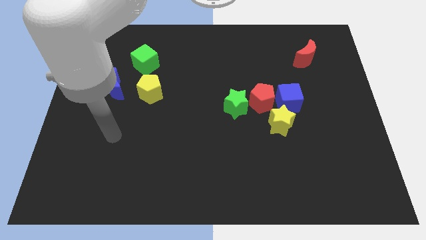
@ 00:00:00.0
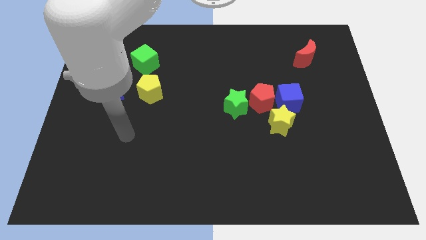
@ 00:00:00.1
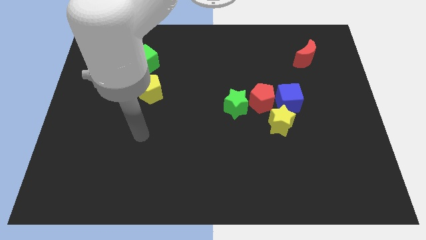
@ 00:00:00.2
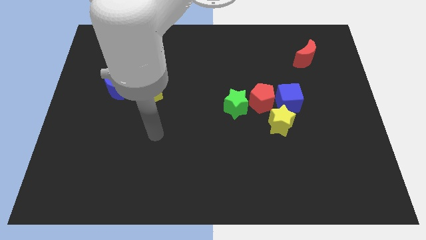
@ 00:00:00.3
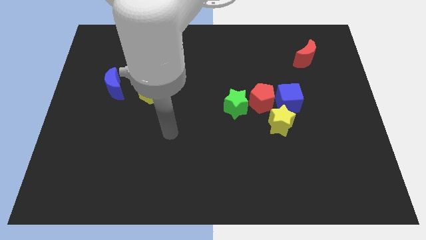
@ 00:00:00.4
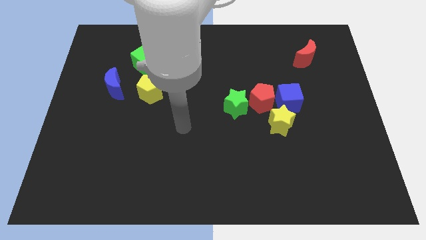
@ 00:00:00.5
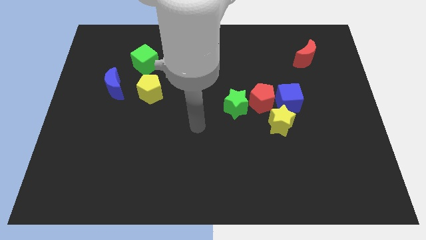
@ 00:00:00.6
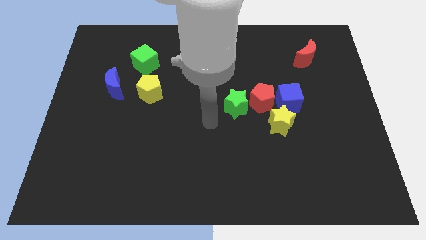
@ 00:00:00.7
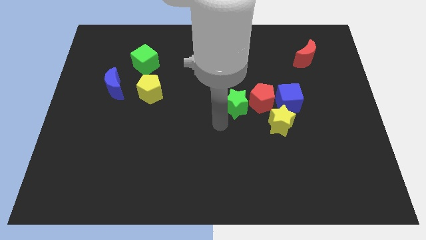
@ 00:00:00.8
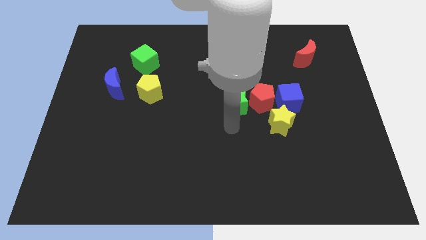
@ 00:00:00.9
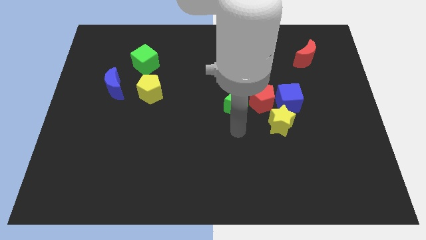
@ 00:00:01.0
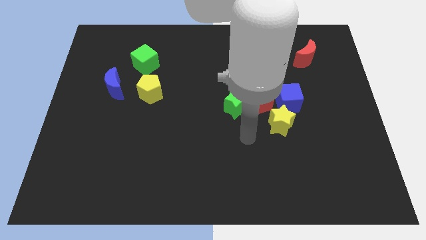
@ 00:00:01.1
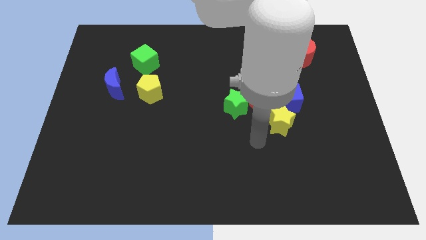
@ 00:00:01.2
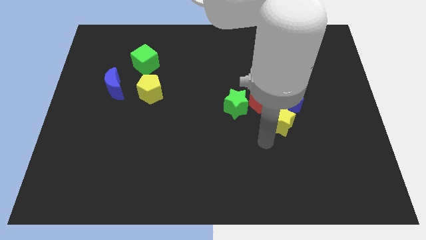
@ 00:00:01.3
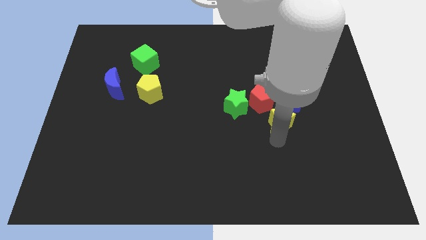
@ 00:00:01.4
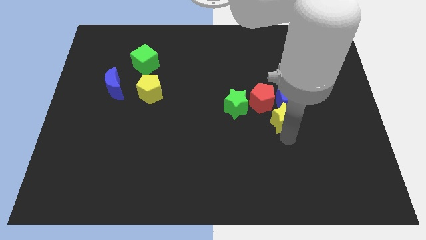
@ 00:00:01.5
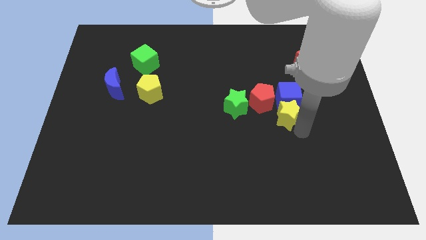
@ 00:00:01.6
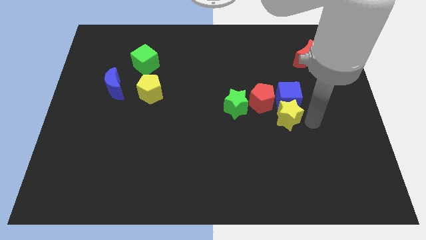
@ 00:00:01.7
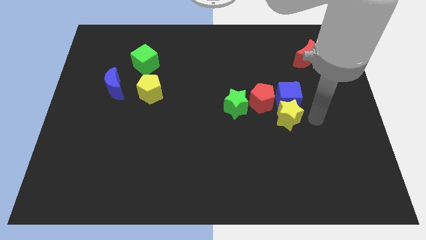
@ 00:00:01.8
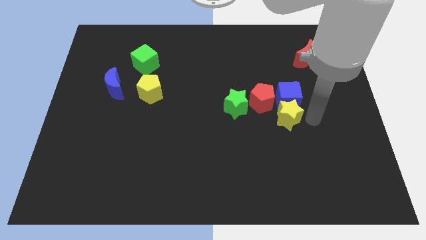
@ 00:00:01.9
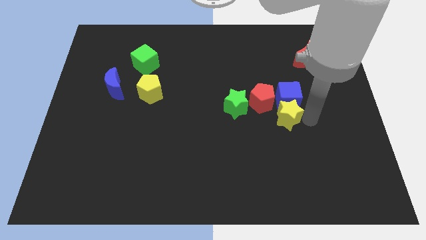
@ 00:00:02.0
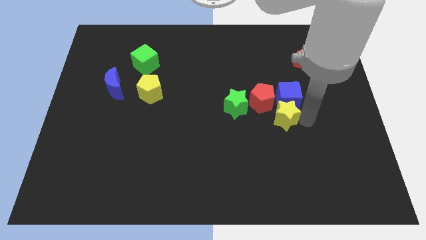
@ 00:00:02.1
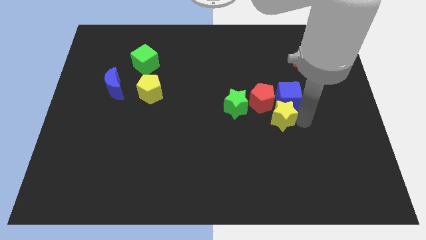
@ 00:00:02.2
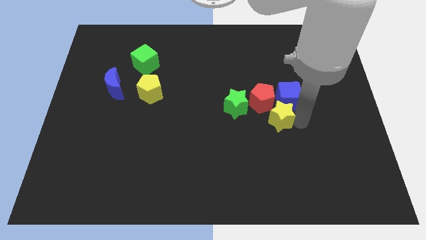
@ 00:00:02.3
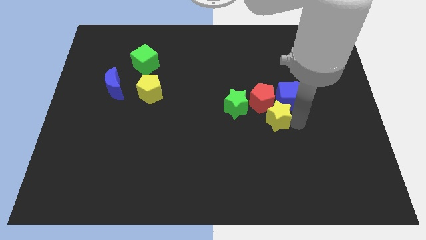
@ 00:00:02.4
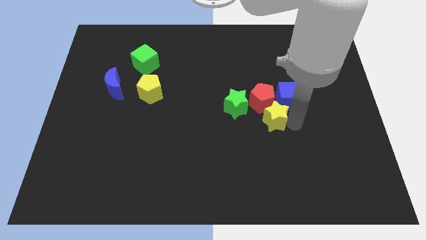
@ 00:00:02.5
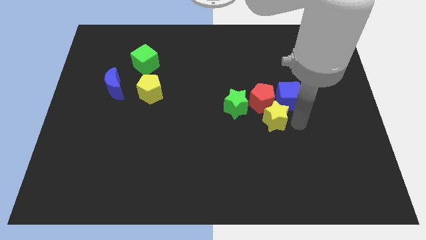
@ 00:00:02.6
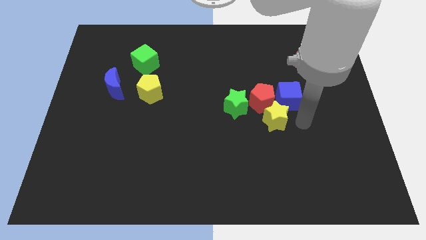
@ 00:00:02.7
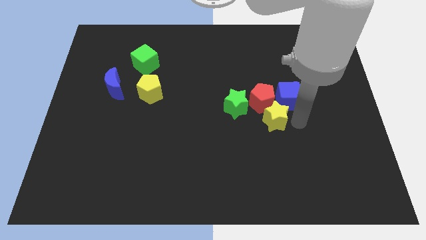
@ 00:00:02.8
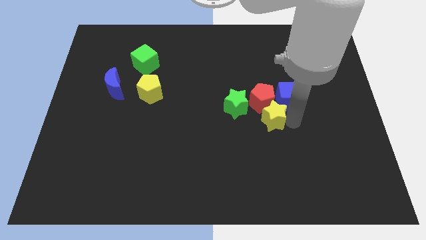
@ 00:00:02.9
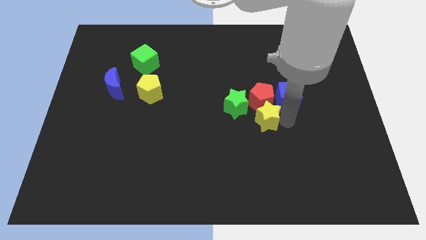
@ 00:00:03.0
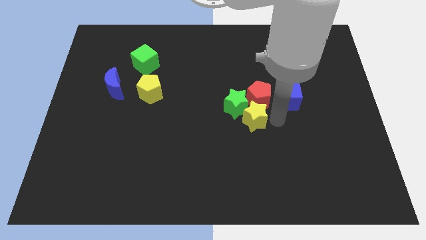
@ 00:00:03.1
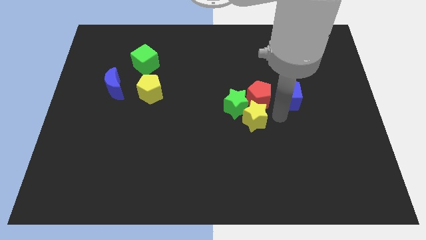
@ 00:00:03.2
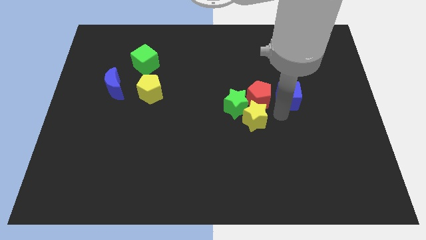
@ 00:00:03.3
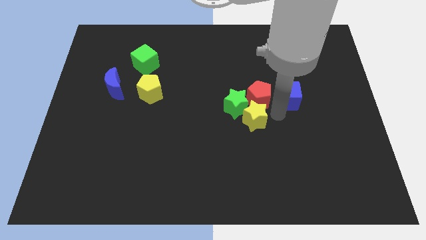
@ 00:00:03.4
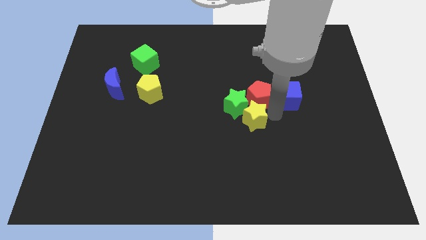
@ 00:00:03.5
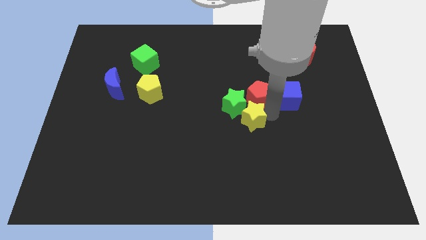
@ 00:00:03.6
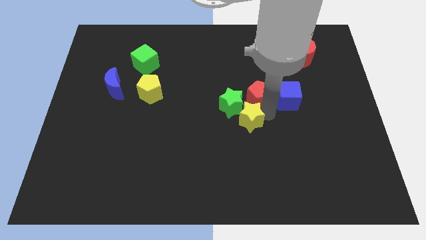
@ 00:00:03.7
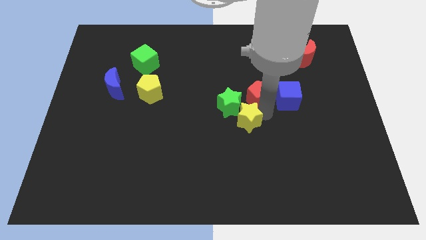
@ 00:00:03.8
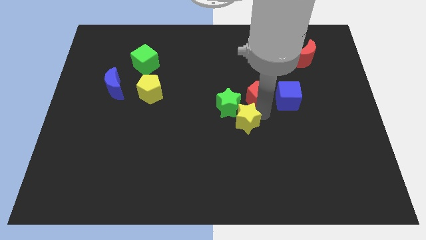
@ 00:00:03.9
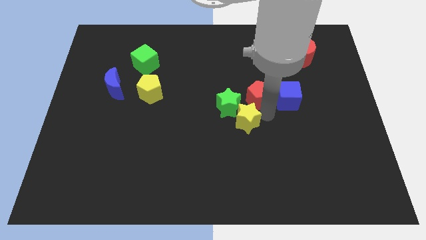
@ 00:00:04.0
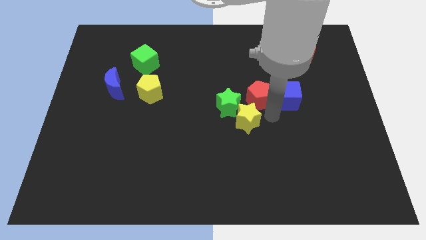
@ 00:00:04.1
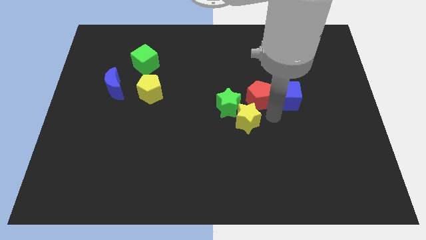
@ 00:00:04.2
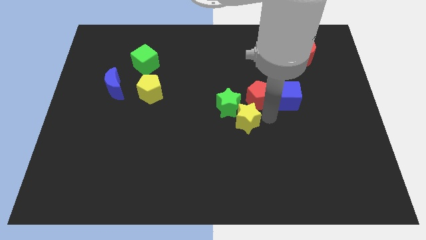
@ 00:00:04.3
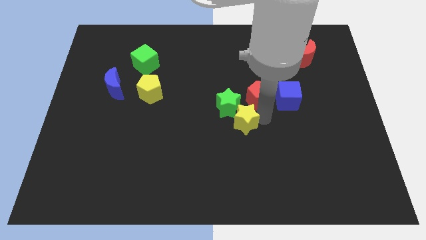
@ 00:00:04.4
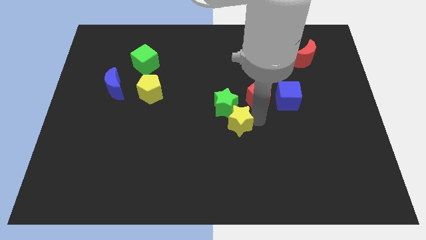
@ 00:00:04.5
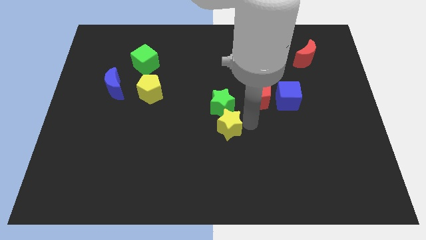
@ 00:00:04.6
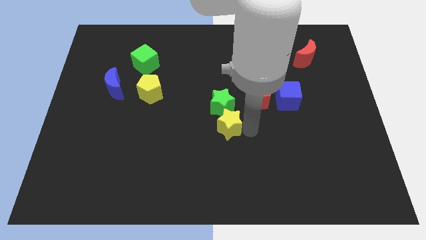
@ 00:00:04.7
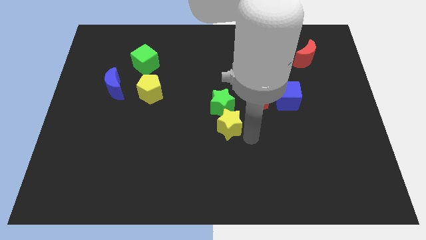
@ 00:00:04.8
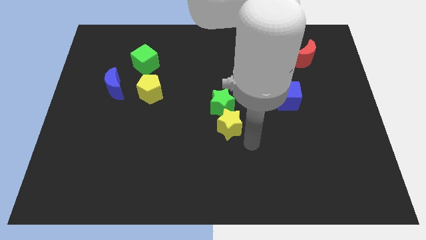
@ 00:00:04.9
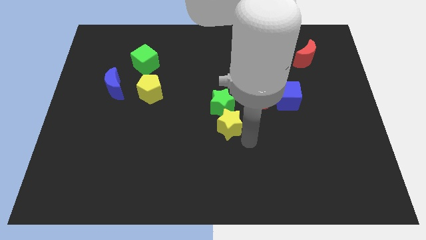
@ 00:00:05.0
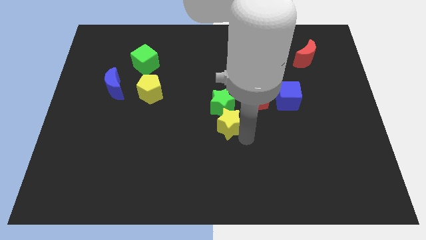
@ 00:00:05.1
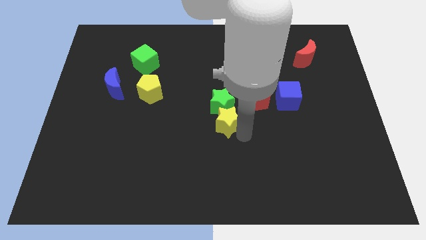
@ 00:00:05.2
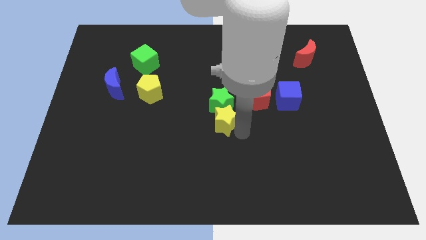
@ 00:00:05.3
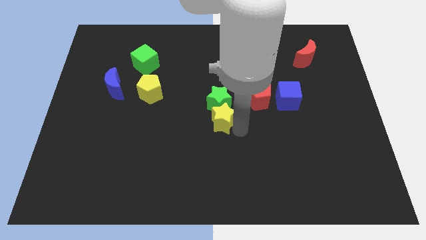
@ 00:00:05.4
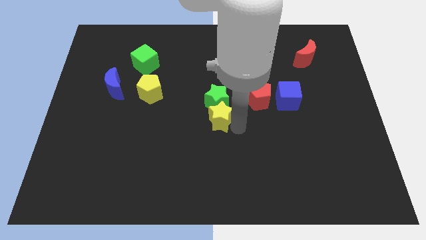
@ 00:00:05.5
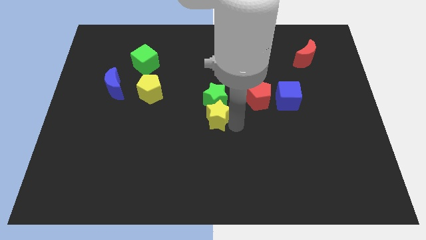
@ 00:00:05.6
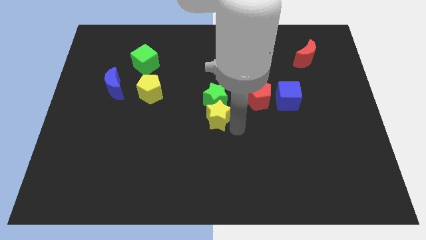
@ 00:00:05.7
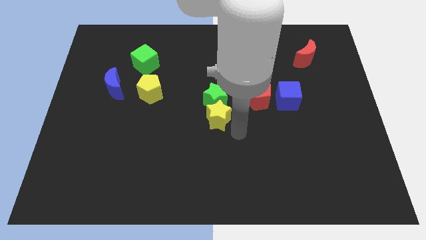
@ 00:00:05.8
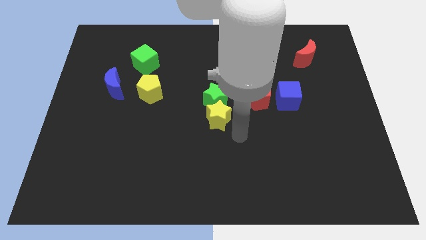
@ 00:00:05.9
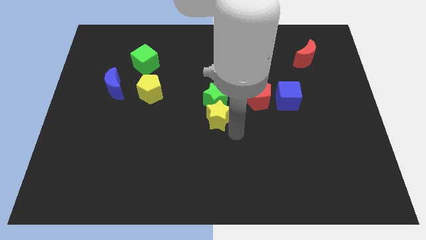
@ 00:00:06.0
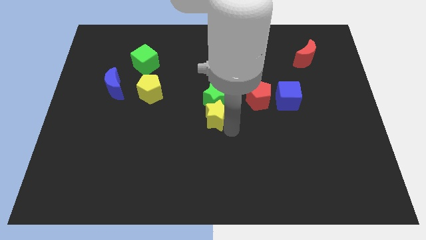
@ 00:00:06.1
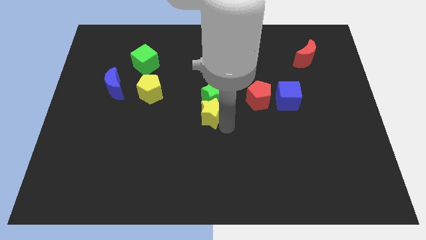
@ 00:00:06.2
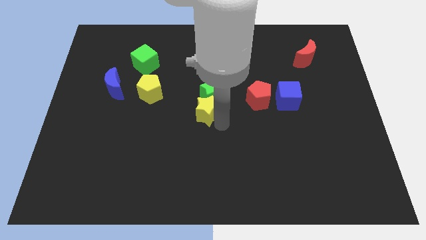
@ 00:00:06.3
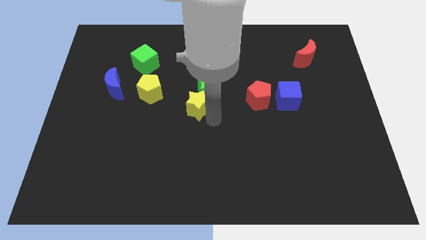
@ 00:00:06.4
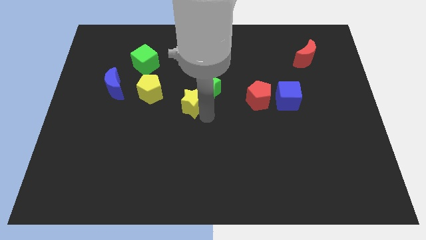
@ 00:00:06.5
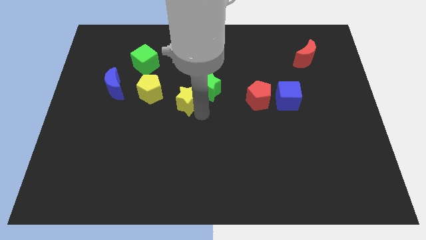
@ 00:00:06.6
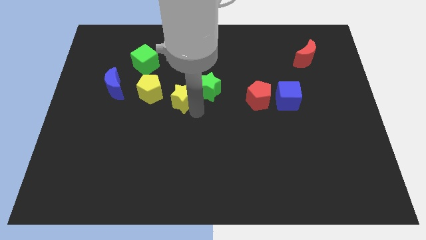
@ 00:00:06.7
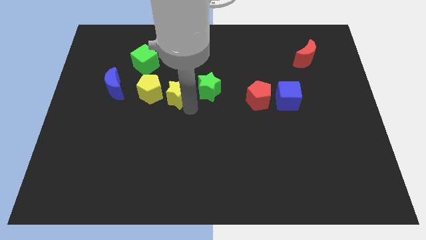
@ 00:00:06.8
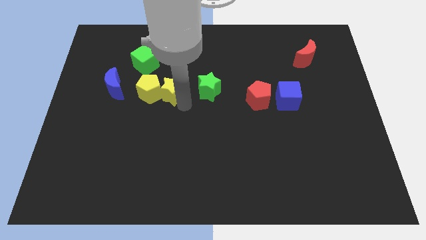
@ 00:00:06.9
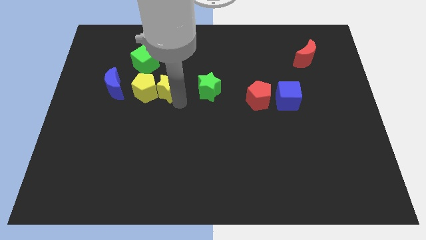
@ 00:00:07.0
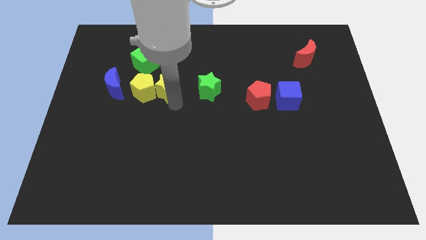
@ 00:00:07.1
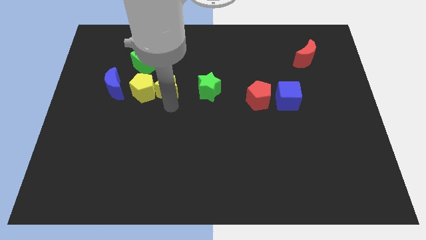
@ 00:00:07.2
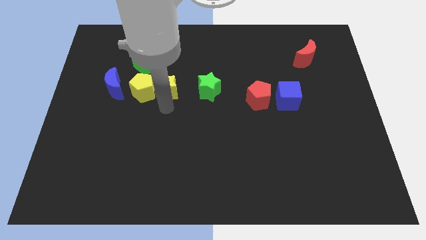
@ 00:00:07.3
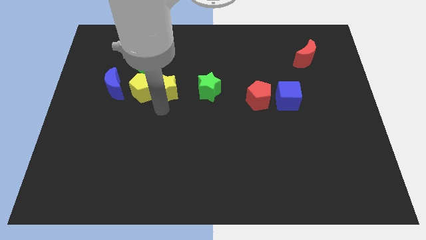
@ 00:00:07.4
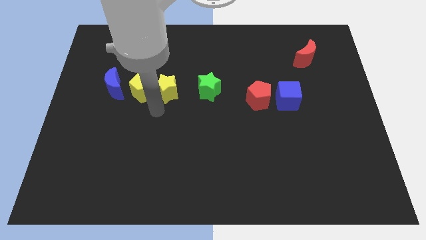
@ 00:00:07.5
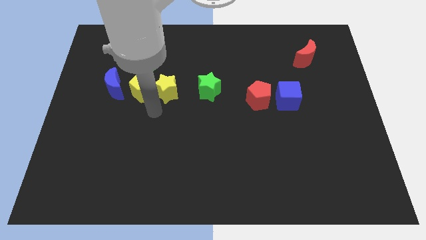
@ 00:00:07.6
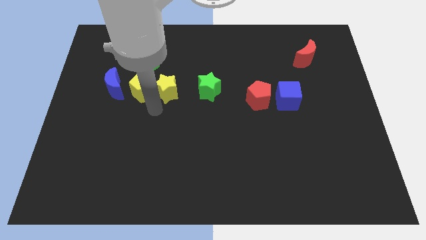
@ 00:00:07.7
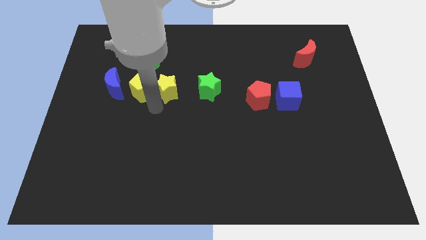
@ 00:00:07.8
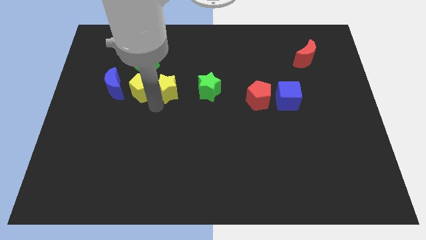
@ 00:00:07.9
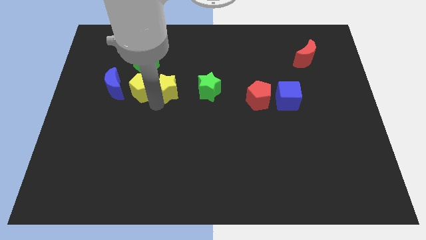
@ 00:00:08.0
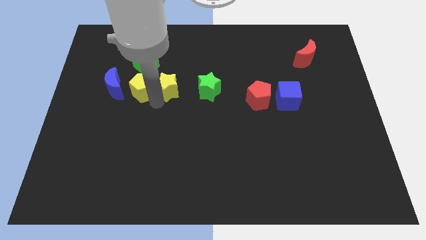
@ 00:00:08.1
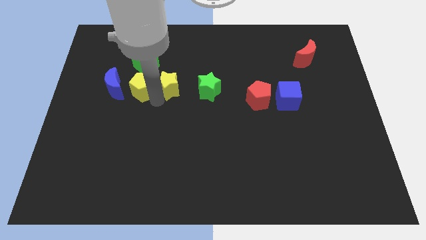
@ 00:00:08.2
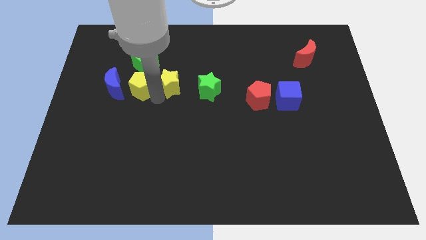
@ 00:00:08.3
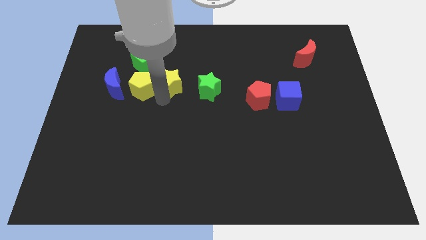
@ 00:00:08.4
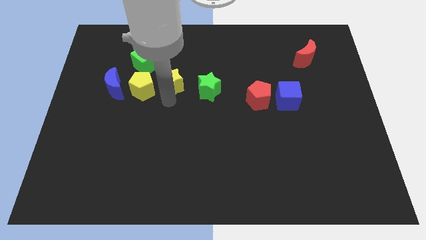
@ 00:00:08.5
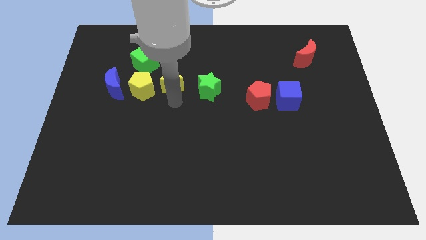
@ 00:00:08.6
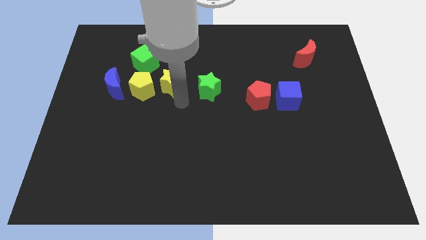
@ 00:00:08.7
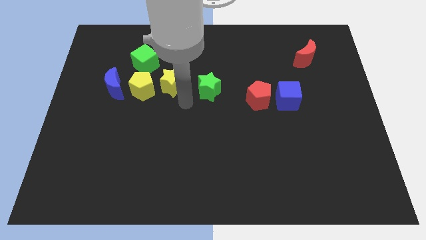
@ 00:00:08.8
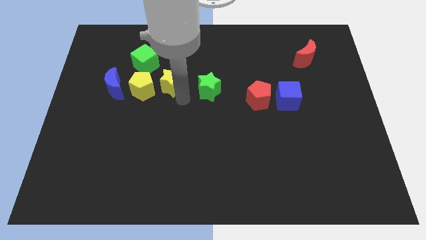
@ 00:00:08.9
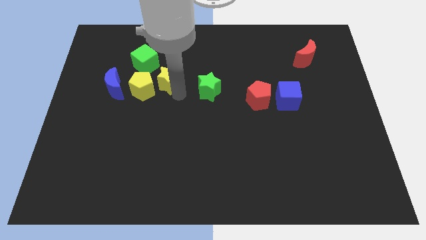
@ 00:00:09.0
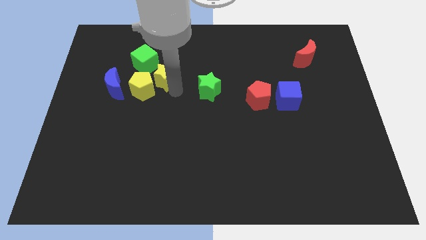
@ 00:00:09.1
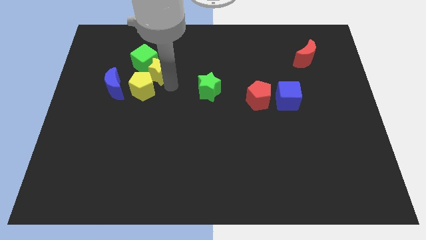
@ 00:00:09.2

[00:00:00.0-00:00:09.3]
push the yellow star towards the green cube
